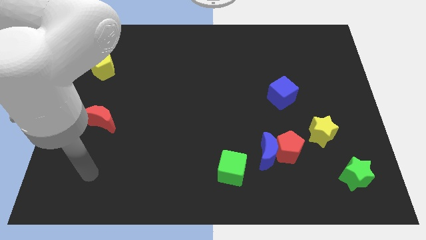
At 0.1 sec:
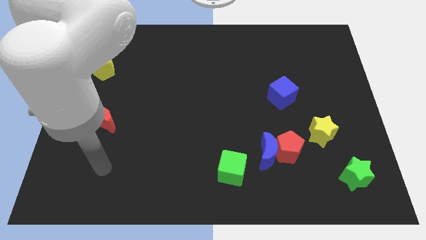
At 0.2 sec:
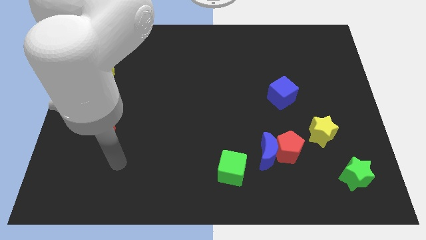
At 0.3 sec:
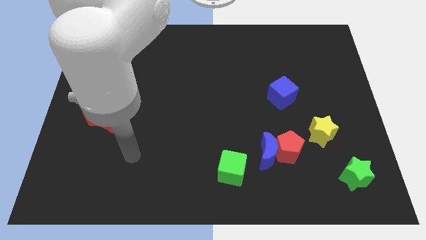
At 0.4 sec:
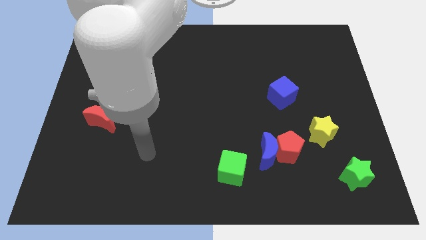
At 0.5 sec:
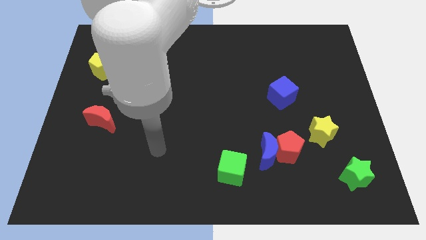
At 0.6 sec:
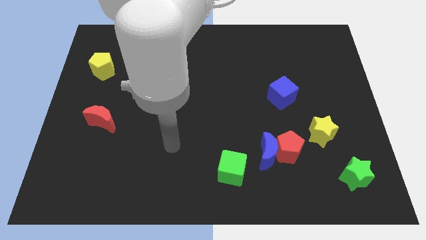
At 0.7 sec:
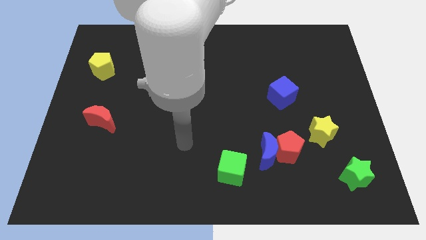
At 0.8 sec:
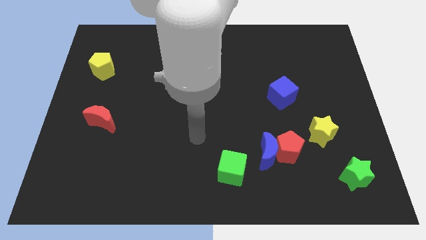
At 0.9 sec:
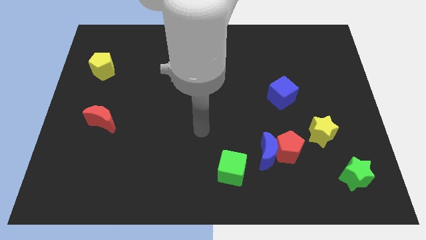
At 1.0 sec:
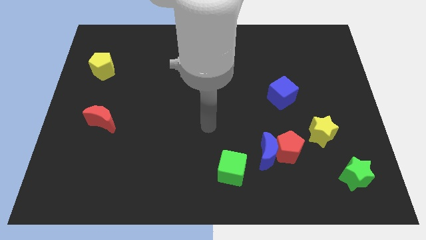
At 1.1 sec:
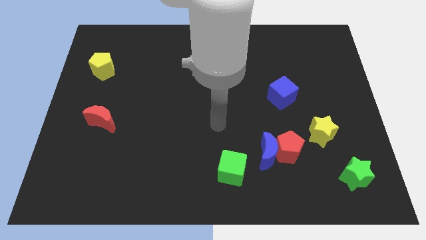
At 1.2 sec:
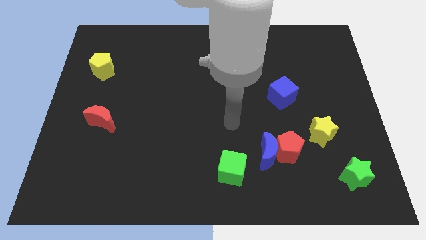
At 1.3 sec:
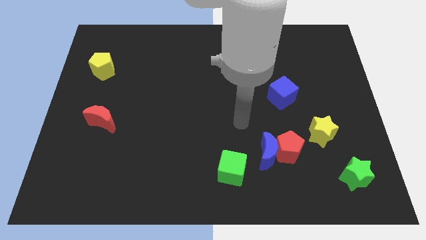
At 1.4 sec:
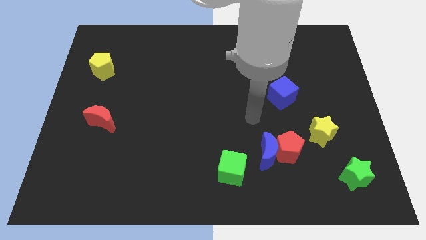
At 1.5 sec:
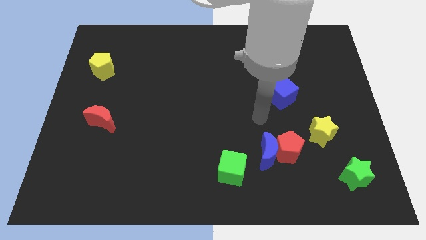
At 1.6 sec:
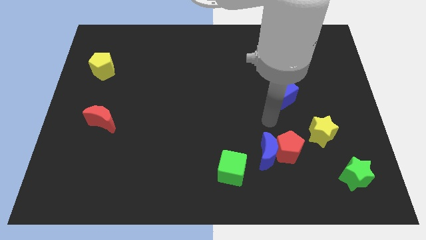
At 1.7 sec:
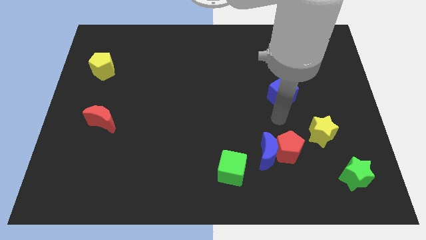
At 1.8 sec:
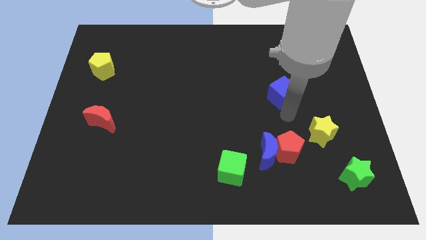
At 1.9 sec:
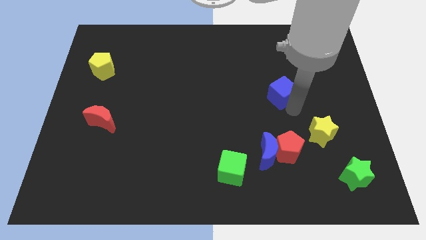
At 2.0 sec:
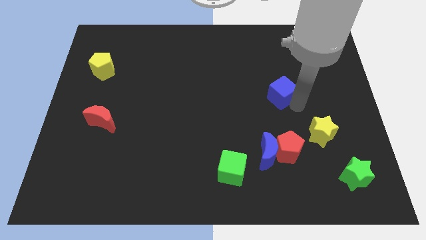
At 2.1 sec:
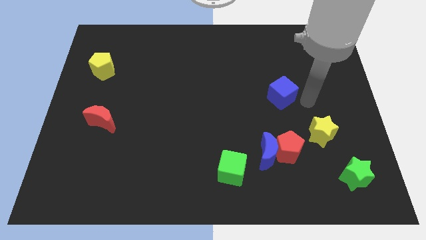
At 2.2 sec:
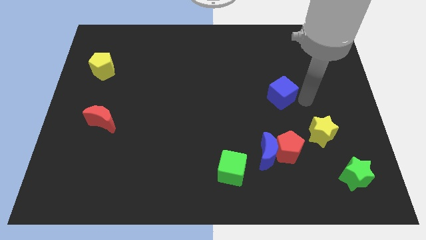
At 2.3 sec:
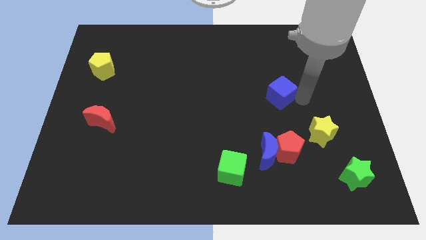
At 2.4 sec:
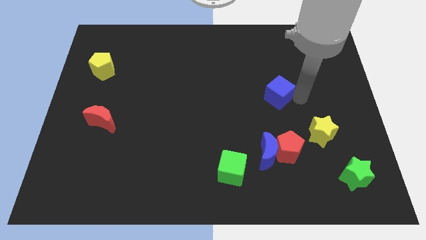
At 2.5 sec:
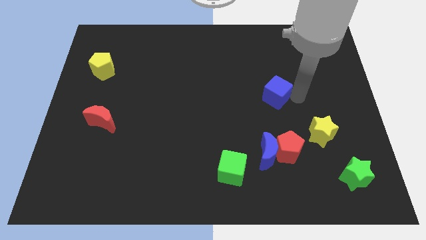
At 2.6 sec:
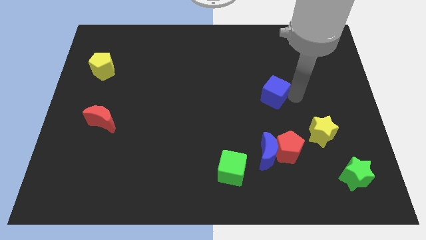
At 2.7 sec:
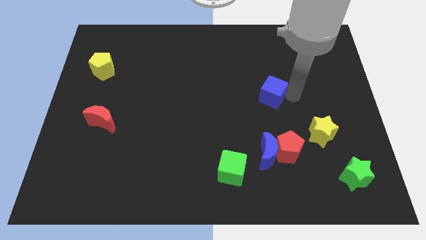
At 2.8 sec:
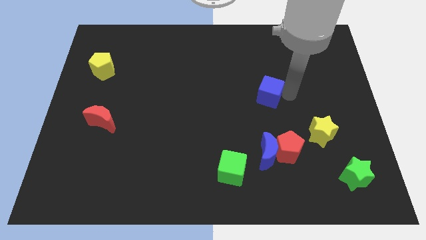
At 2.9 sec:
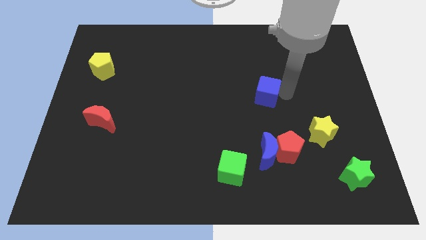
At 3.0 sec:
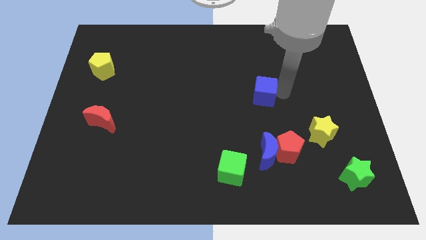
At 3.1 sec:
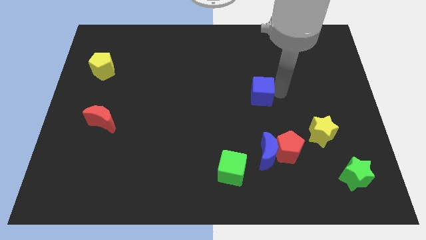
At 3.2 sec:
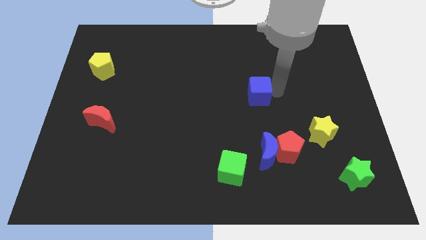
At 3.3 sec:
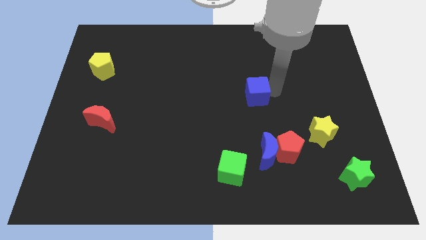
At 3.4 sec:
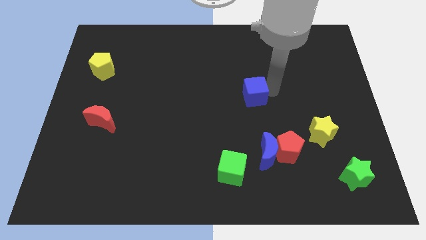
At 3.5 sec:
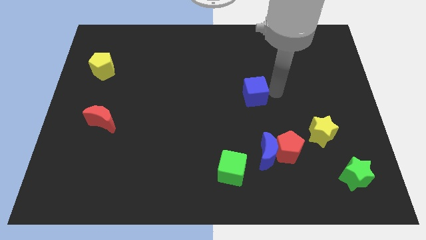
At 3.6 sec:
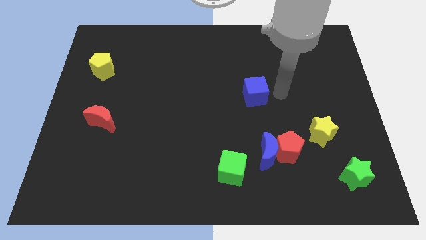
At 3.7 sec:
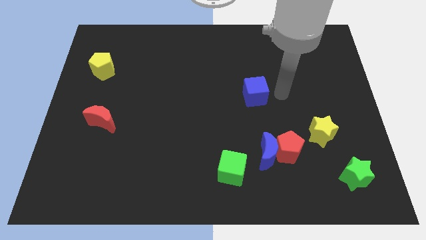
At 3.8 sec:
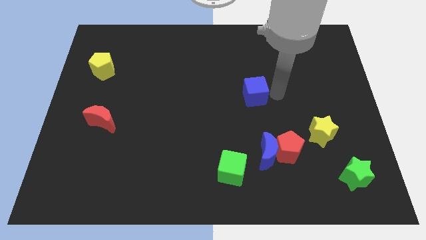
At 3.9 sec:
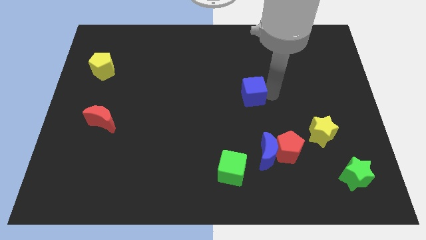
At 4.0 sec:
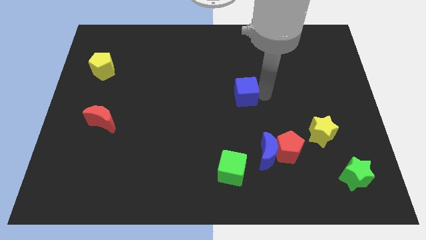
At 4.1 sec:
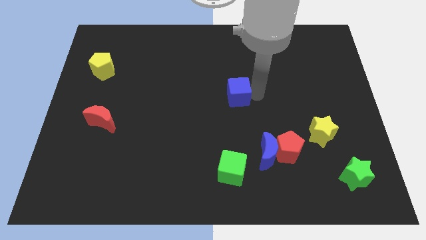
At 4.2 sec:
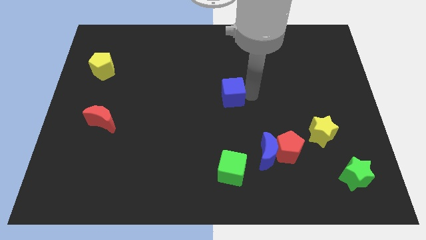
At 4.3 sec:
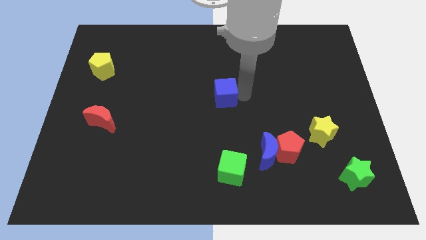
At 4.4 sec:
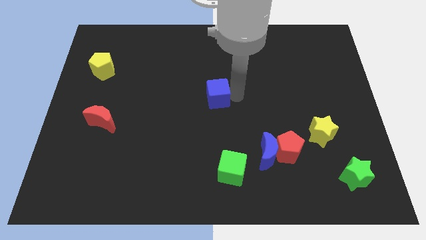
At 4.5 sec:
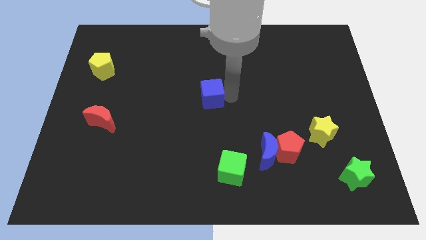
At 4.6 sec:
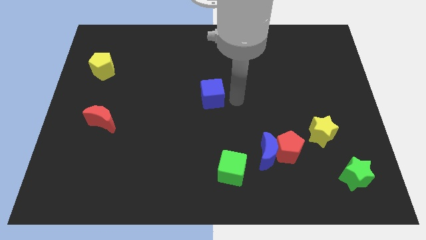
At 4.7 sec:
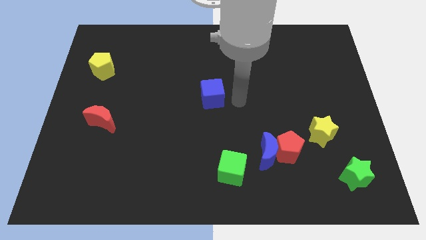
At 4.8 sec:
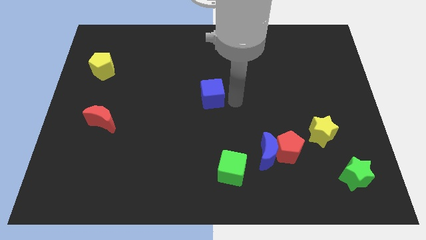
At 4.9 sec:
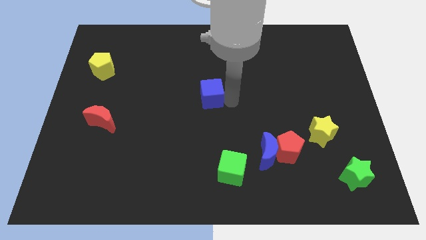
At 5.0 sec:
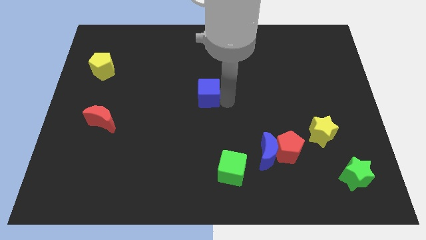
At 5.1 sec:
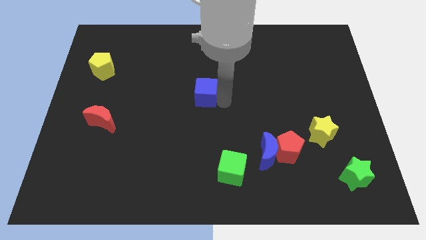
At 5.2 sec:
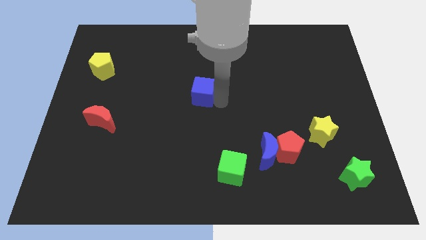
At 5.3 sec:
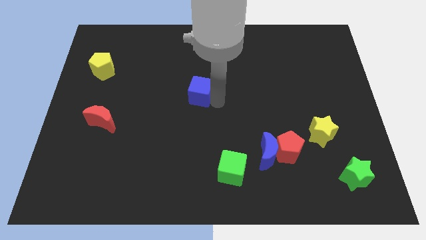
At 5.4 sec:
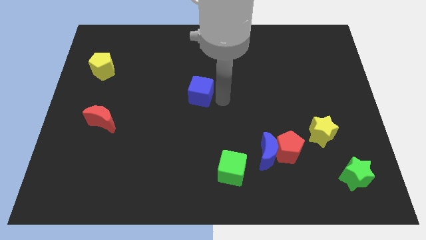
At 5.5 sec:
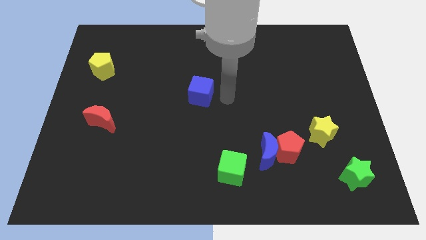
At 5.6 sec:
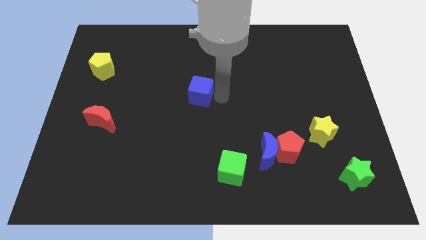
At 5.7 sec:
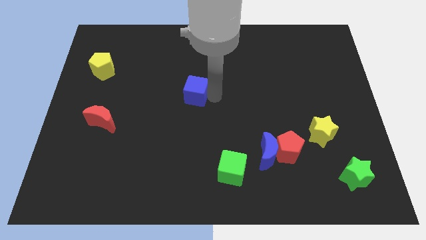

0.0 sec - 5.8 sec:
push the blue cube to the left

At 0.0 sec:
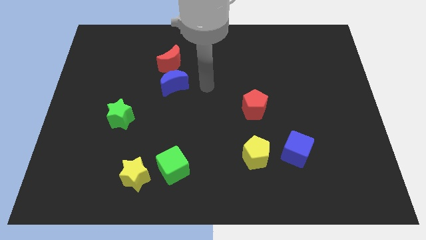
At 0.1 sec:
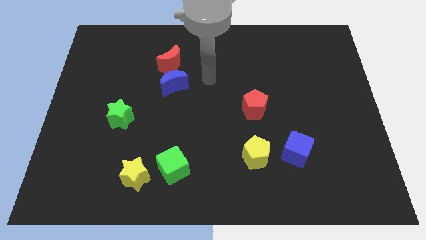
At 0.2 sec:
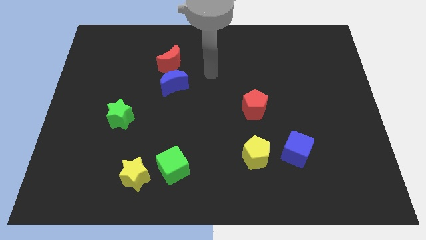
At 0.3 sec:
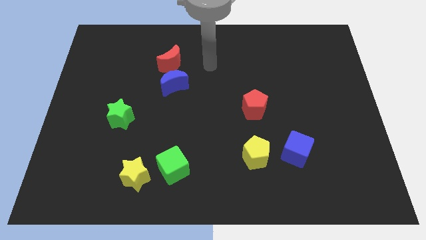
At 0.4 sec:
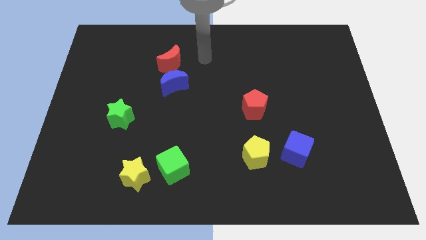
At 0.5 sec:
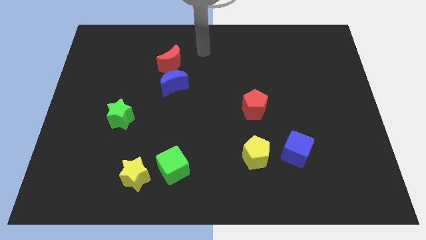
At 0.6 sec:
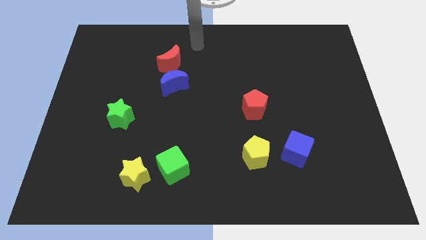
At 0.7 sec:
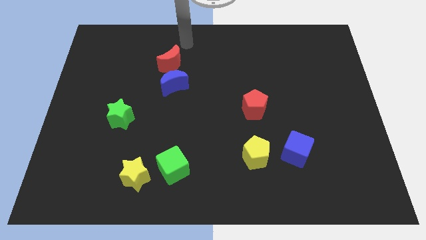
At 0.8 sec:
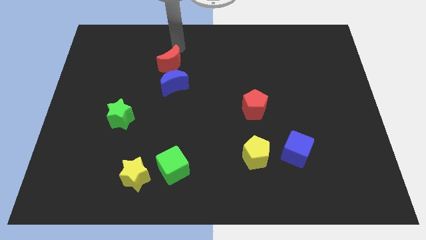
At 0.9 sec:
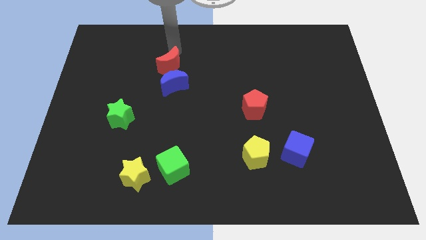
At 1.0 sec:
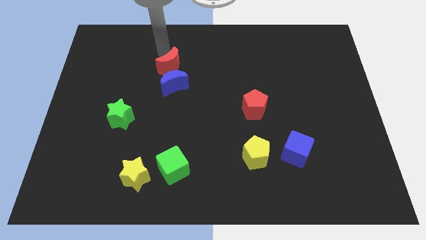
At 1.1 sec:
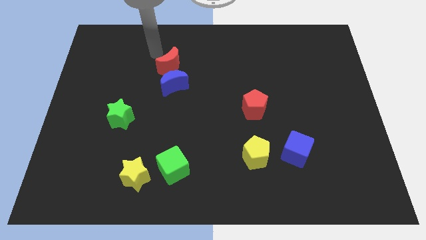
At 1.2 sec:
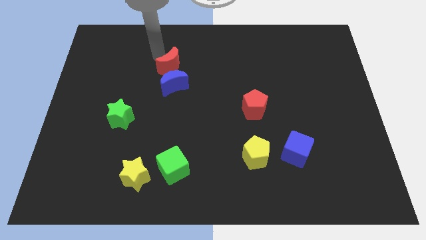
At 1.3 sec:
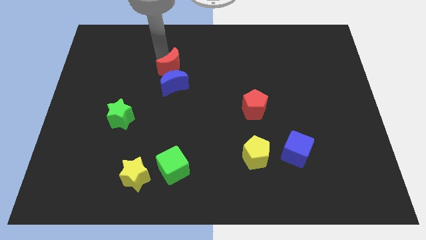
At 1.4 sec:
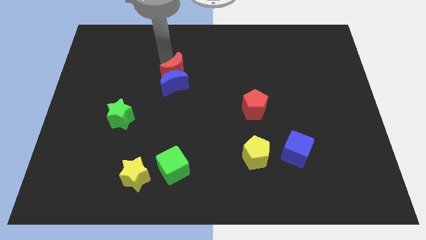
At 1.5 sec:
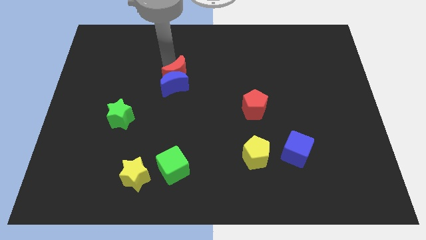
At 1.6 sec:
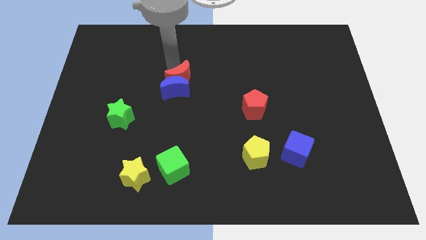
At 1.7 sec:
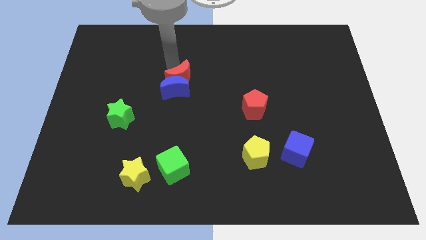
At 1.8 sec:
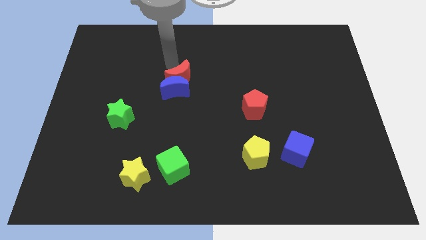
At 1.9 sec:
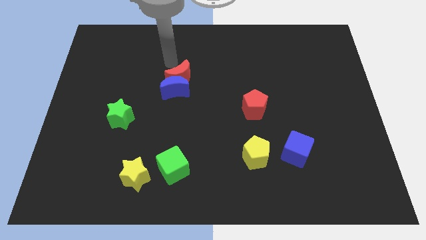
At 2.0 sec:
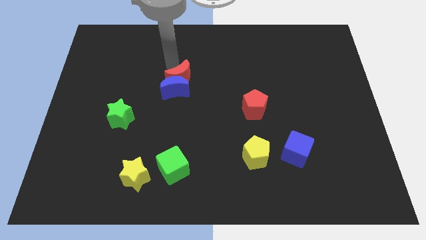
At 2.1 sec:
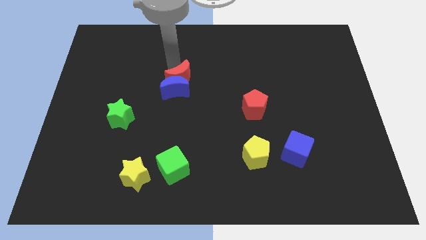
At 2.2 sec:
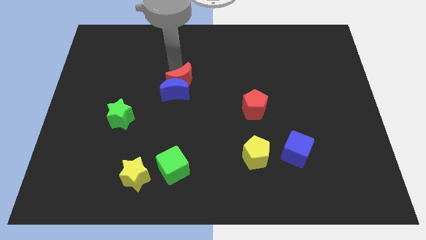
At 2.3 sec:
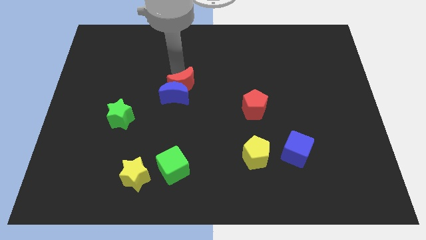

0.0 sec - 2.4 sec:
push the red moon downwards a little
